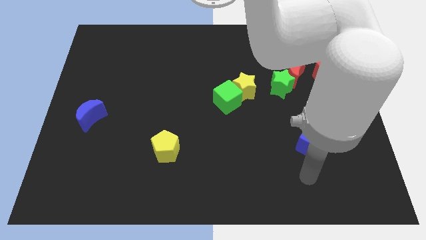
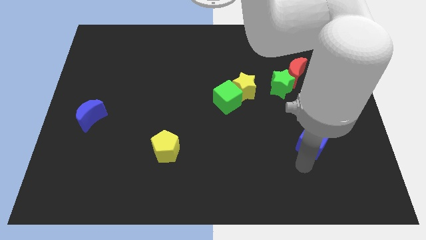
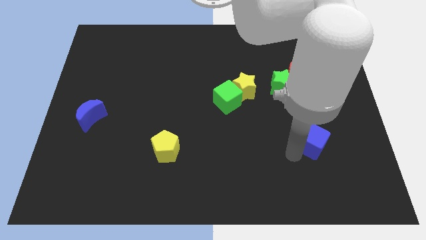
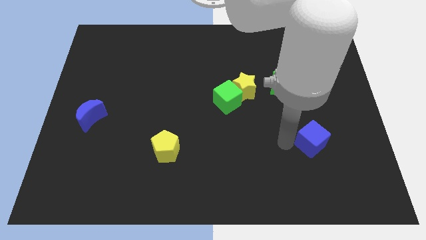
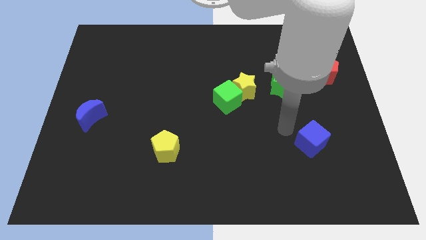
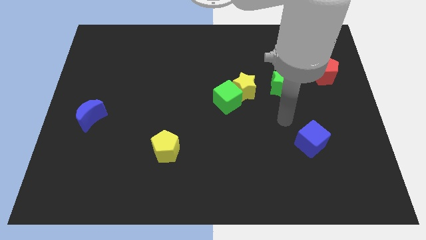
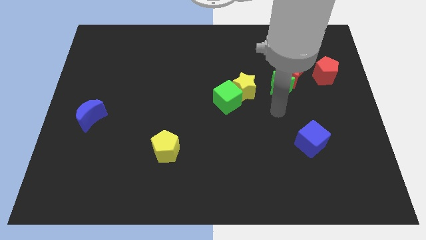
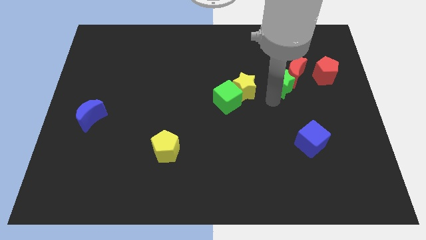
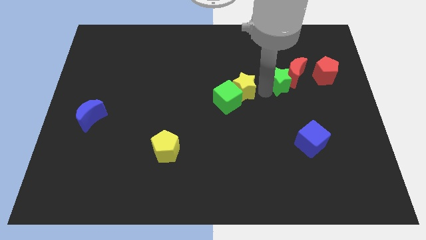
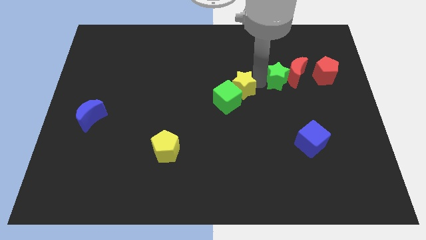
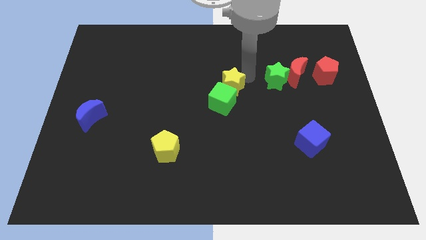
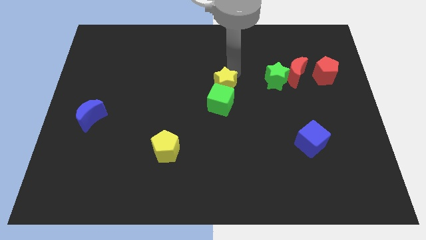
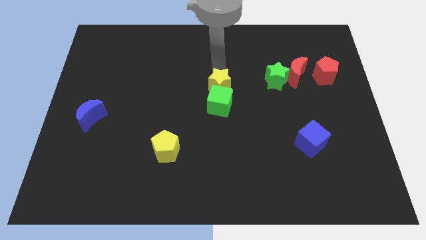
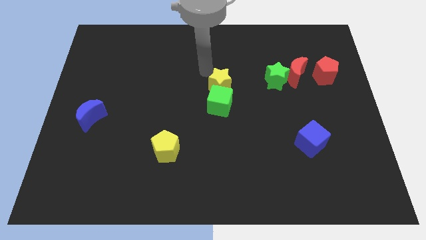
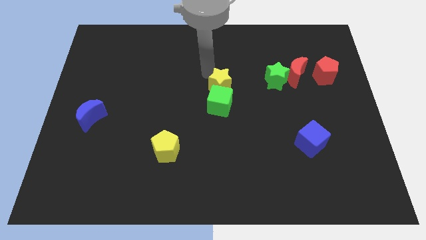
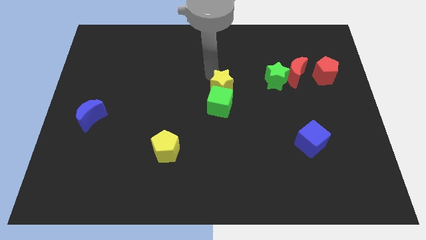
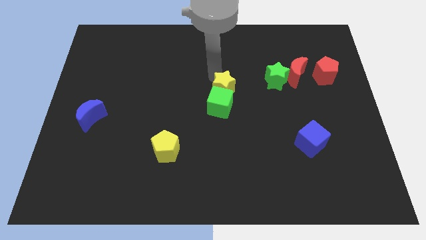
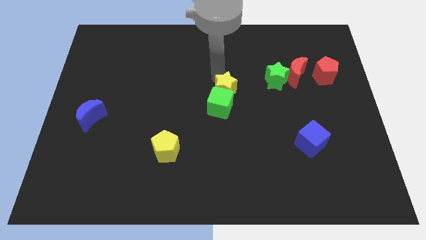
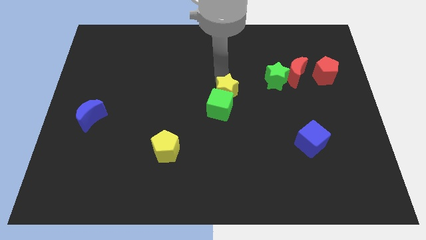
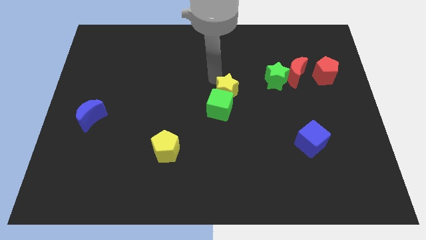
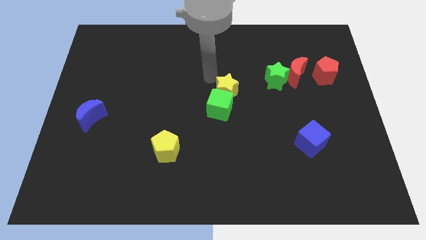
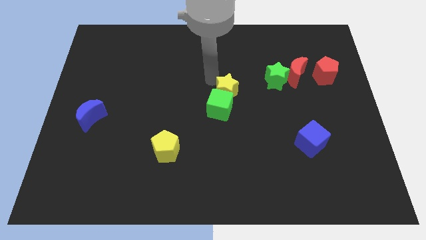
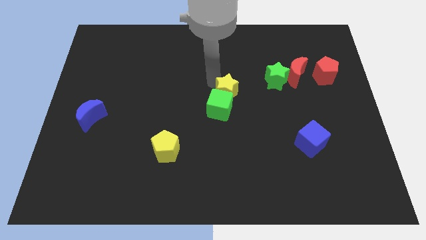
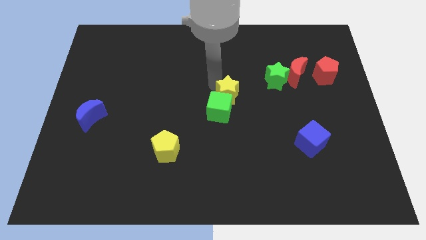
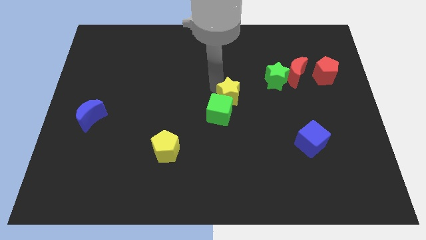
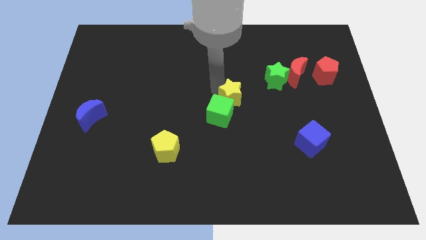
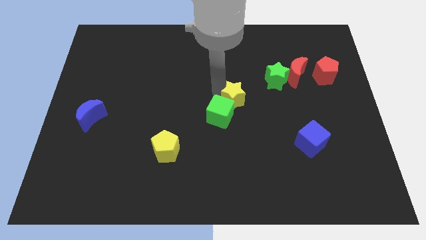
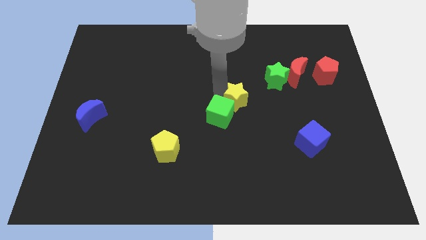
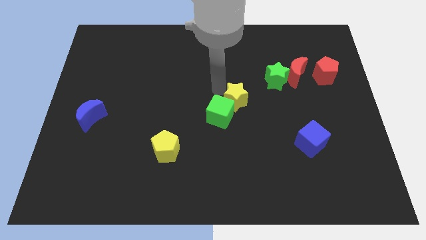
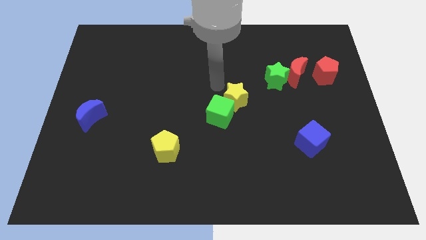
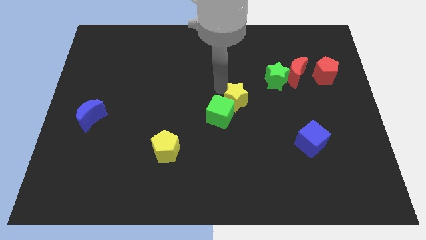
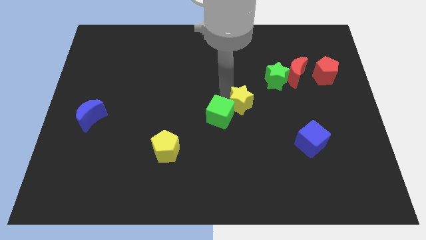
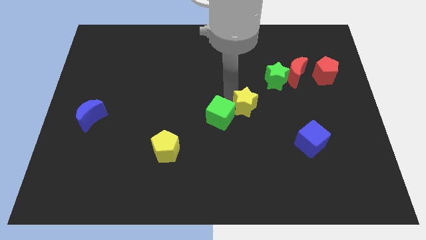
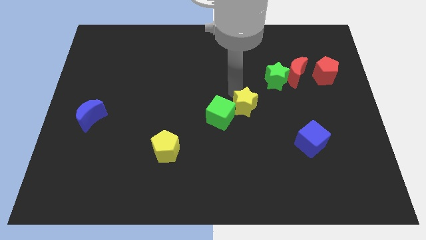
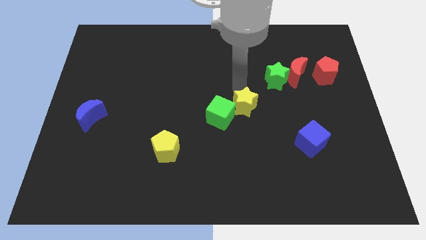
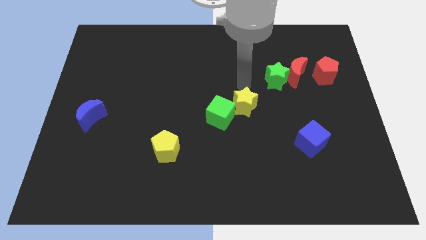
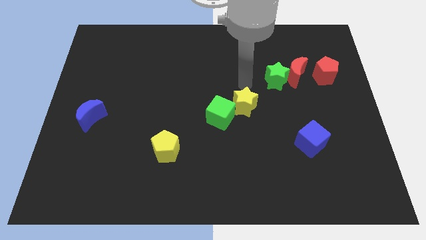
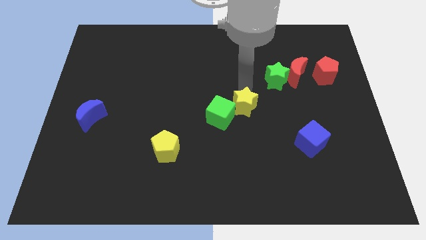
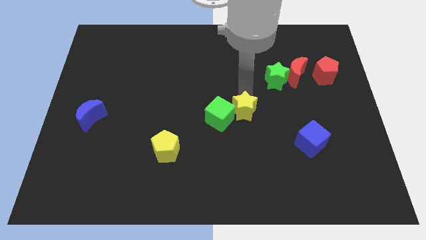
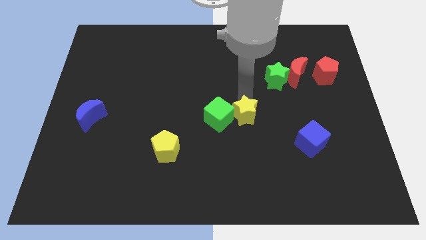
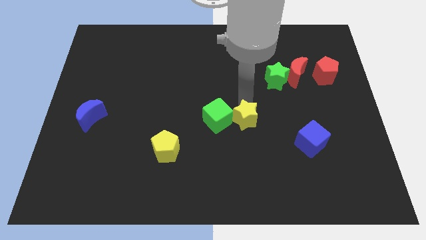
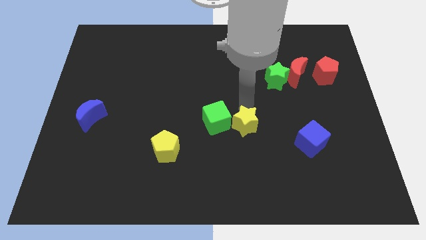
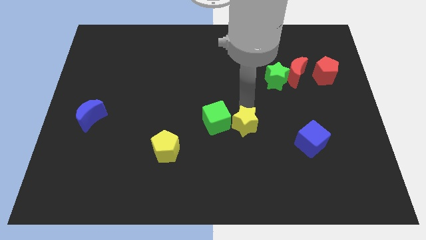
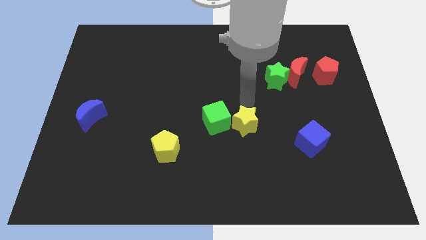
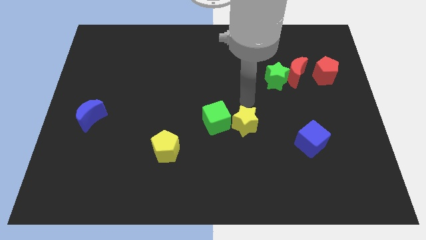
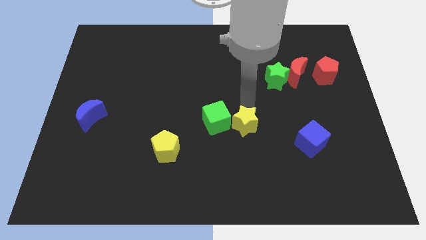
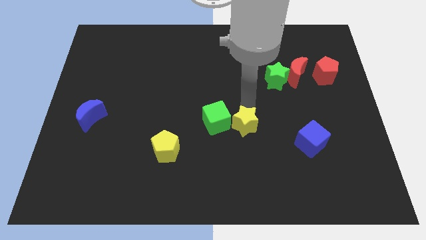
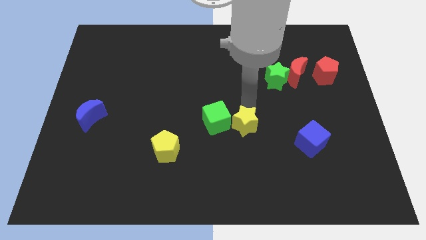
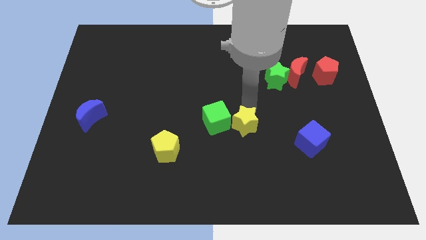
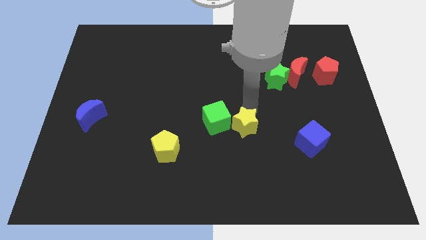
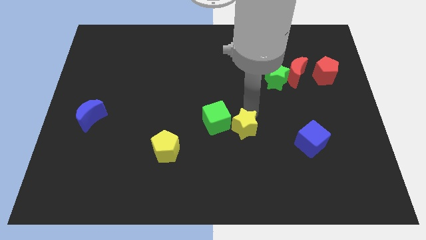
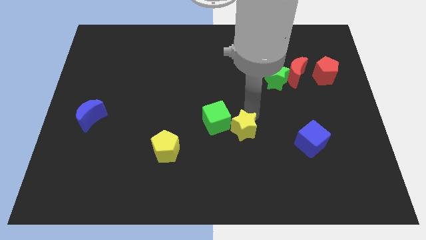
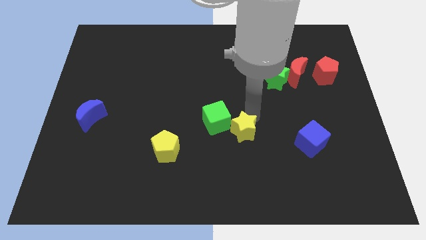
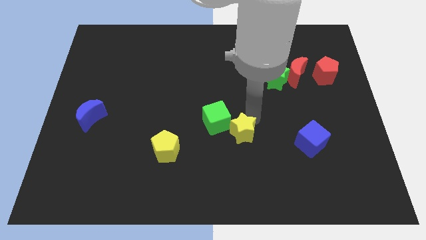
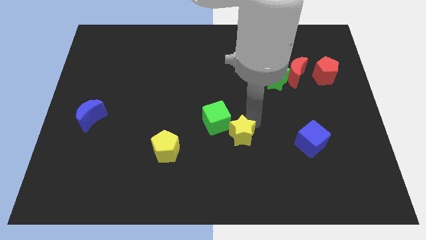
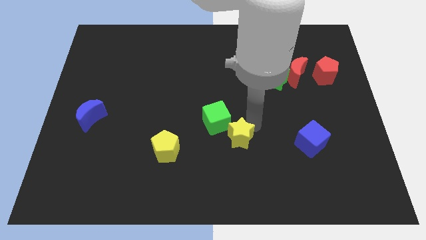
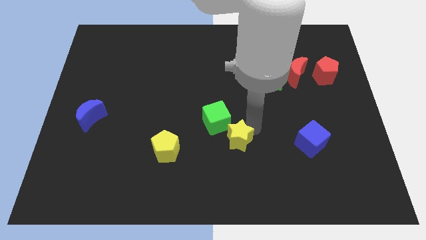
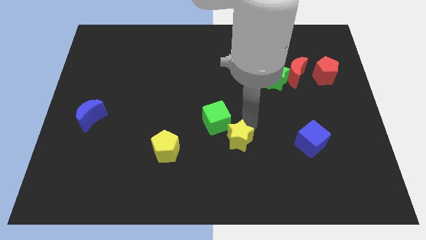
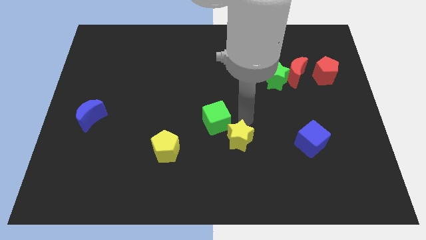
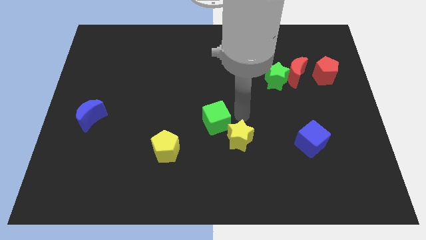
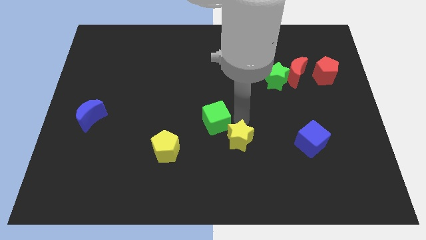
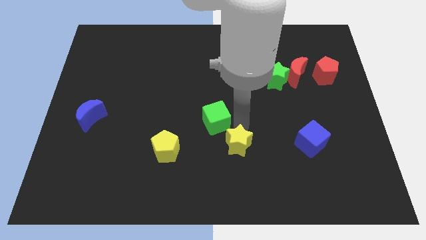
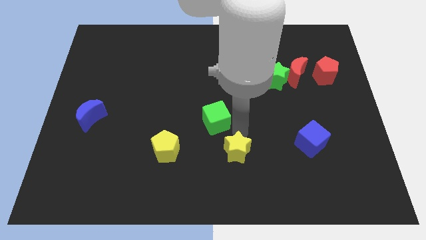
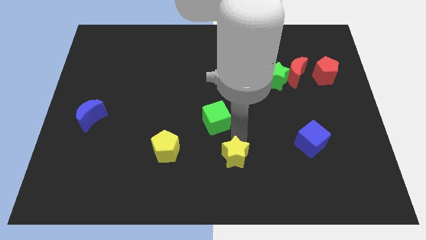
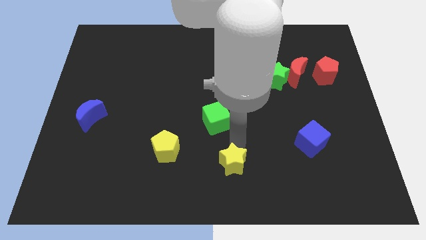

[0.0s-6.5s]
push the yellow star to the bottom
